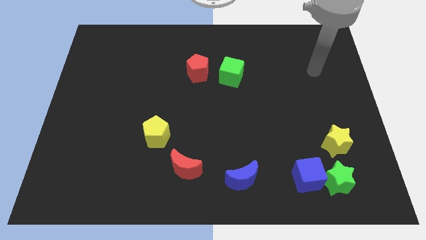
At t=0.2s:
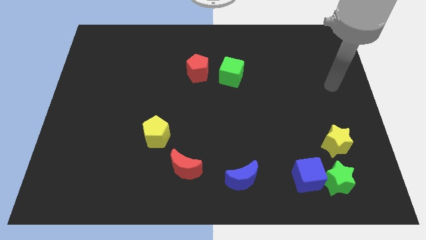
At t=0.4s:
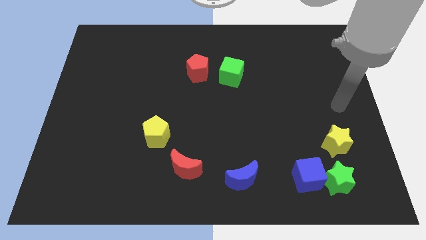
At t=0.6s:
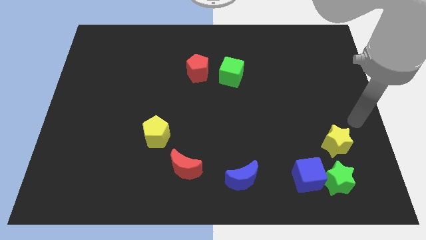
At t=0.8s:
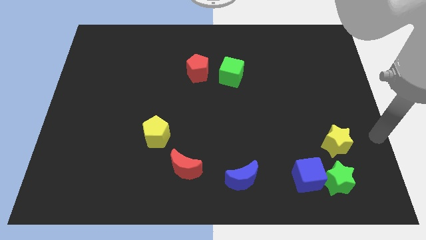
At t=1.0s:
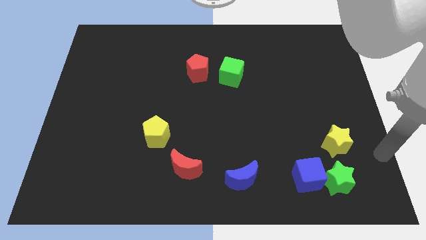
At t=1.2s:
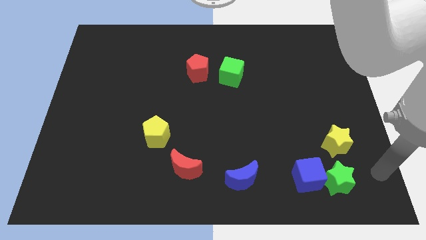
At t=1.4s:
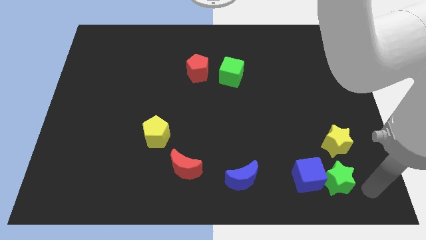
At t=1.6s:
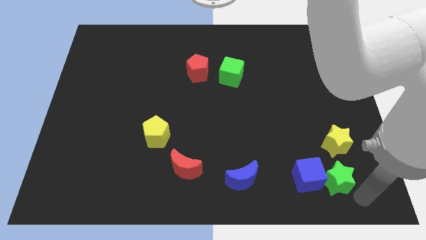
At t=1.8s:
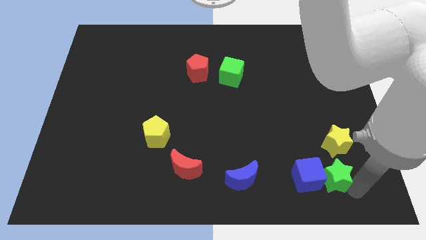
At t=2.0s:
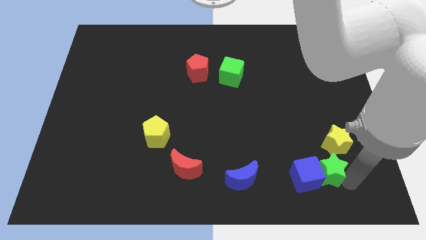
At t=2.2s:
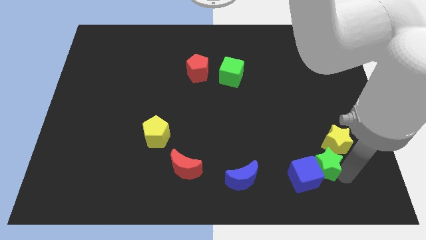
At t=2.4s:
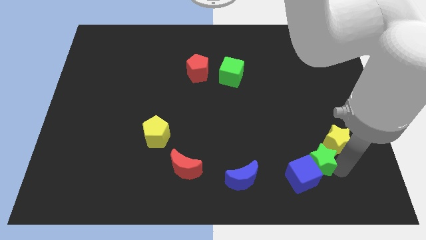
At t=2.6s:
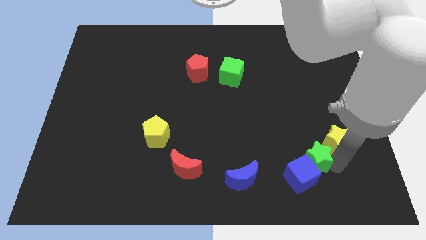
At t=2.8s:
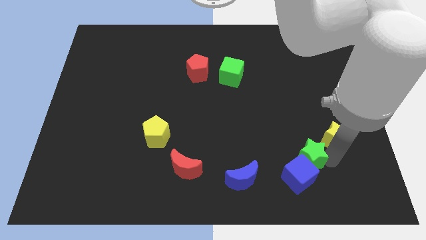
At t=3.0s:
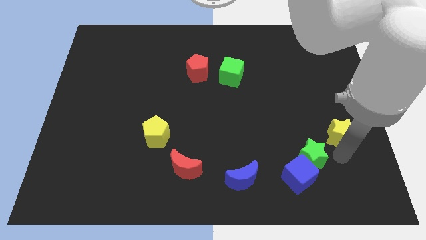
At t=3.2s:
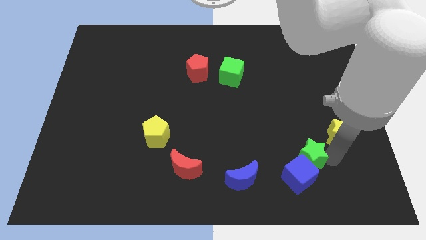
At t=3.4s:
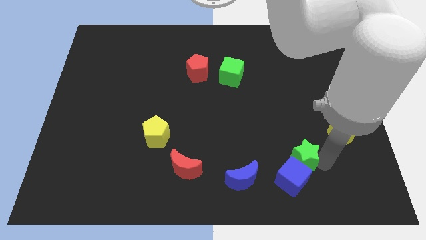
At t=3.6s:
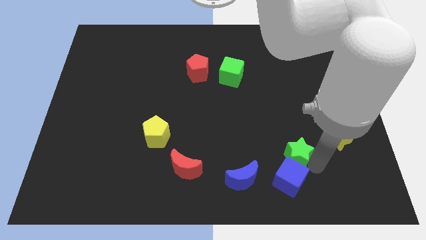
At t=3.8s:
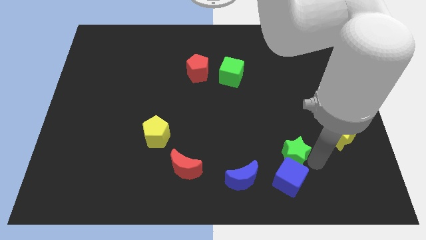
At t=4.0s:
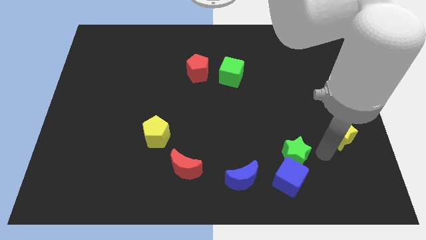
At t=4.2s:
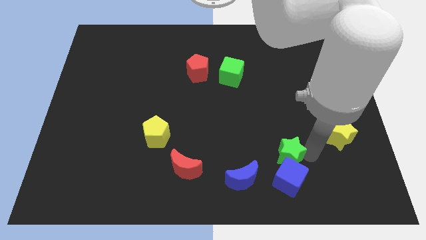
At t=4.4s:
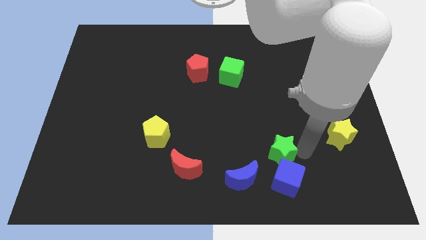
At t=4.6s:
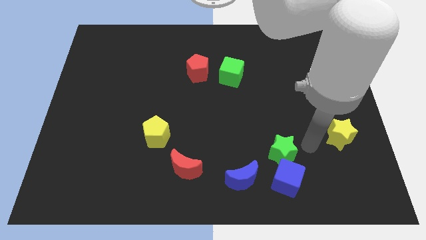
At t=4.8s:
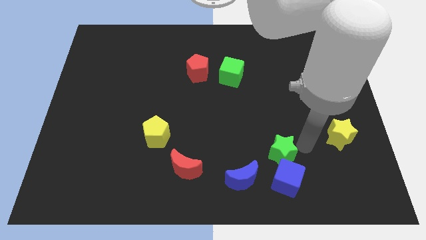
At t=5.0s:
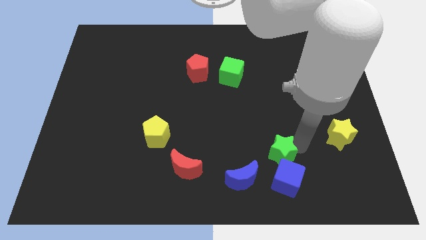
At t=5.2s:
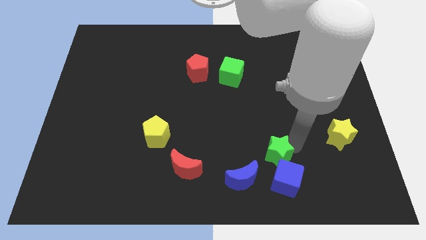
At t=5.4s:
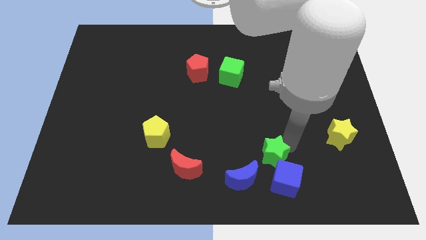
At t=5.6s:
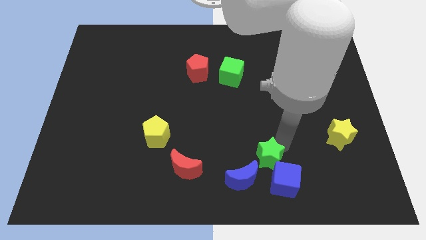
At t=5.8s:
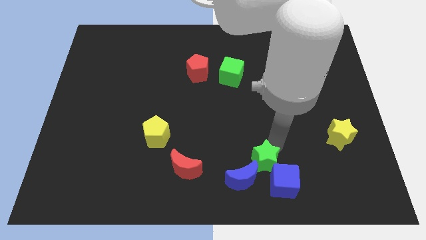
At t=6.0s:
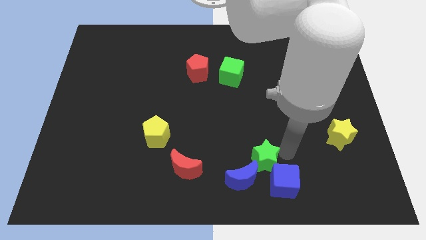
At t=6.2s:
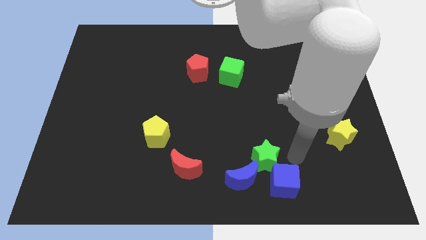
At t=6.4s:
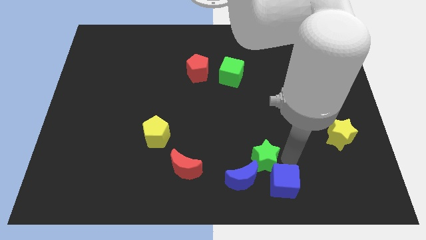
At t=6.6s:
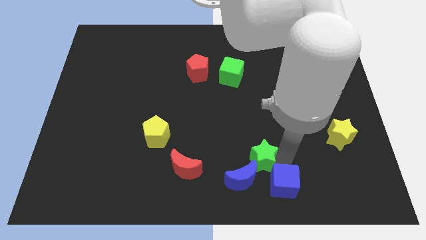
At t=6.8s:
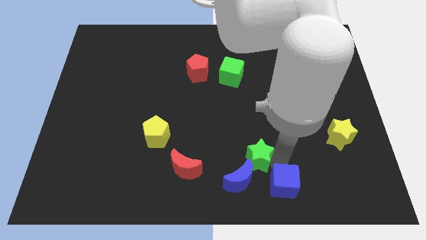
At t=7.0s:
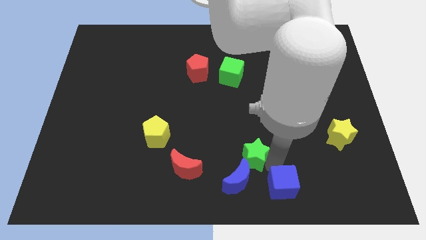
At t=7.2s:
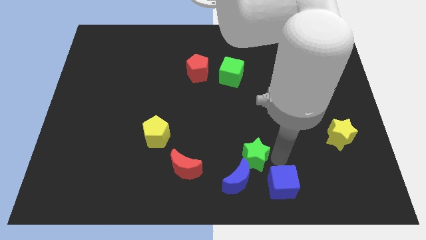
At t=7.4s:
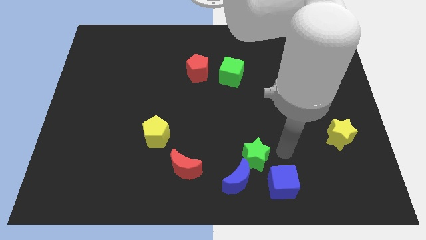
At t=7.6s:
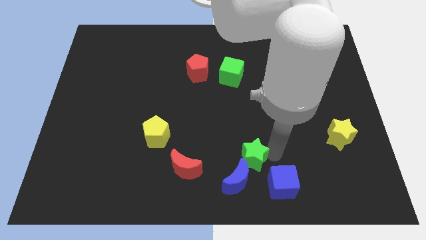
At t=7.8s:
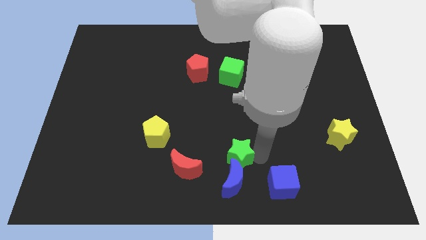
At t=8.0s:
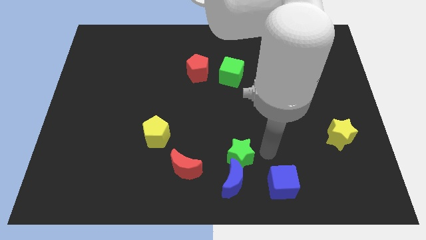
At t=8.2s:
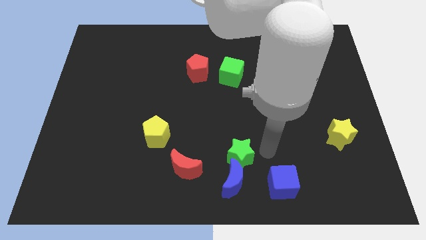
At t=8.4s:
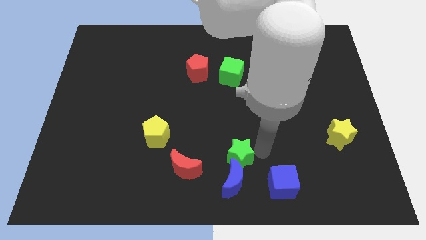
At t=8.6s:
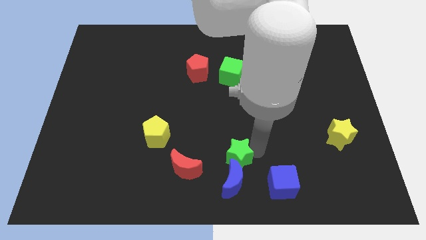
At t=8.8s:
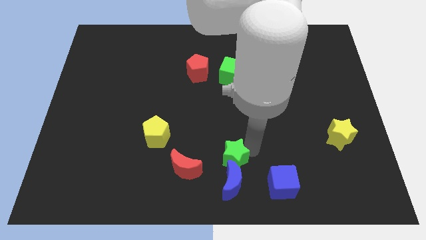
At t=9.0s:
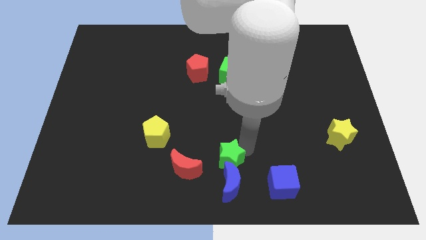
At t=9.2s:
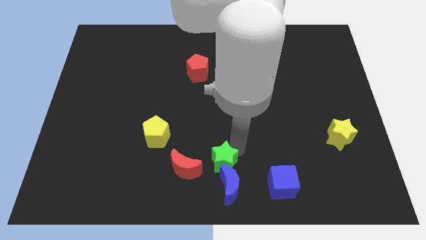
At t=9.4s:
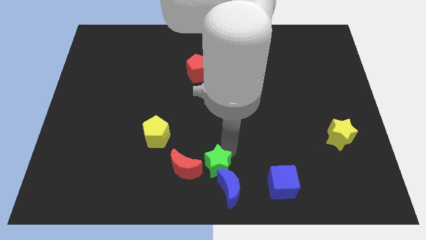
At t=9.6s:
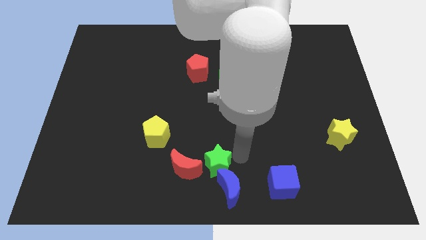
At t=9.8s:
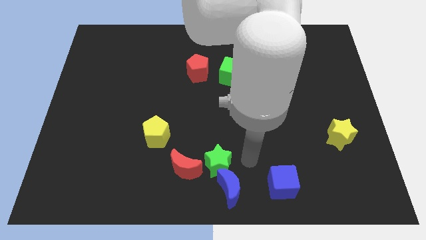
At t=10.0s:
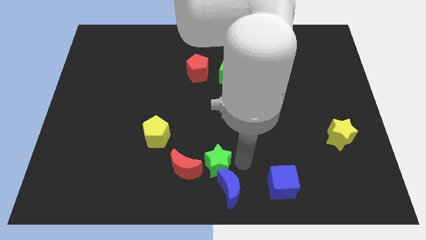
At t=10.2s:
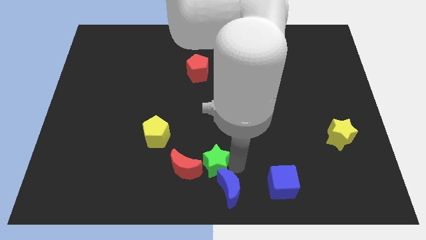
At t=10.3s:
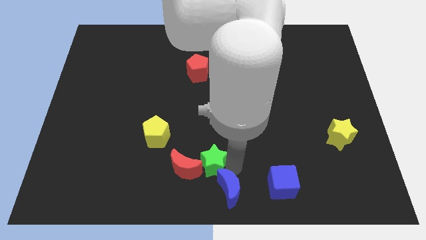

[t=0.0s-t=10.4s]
put the green star towards the red moon

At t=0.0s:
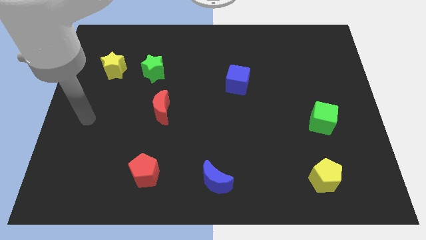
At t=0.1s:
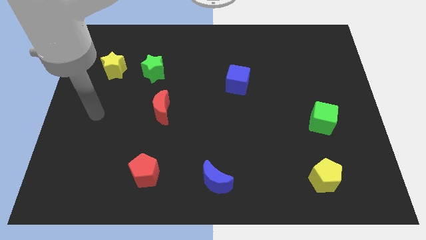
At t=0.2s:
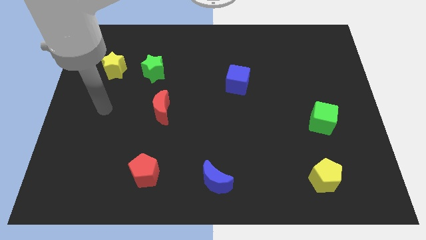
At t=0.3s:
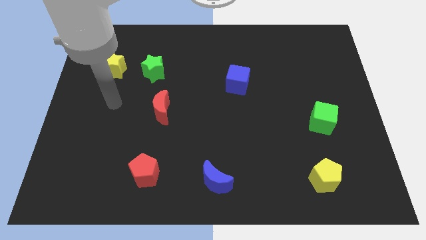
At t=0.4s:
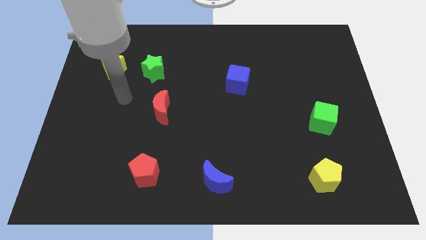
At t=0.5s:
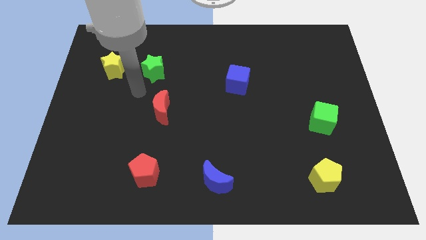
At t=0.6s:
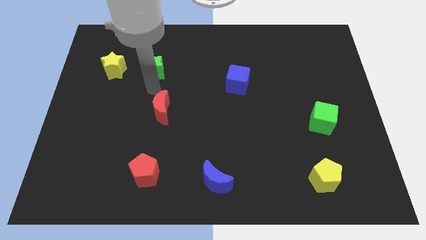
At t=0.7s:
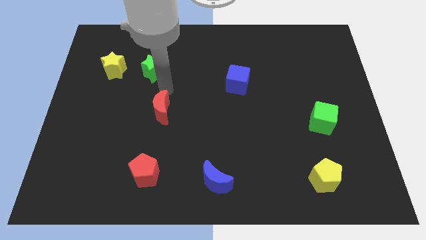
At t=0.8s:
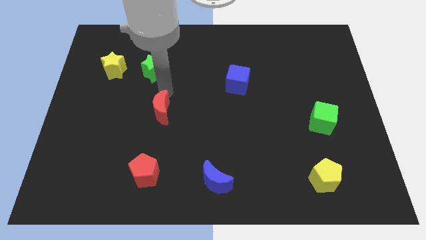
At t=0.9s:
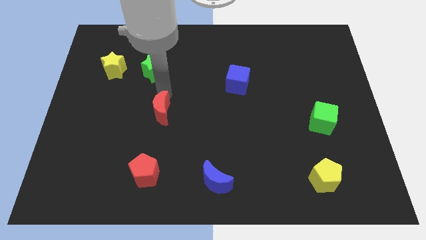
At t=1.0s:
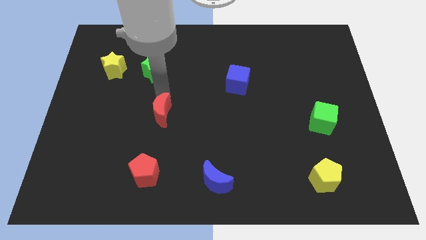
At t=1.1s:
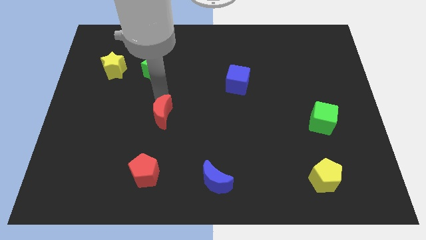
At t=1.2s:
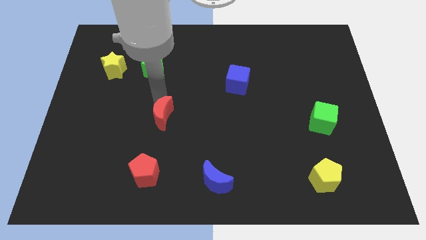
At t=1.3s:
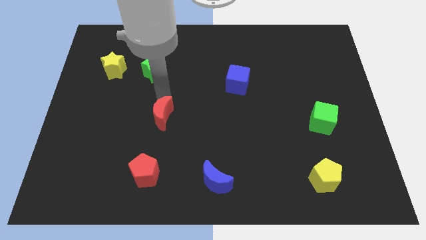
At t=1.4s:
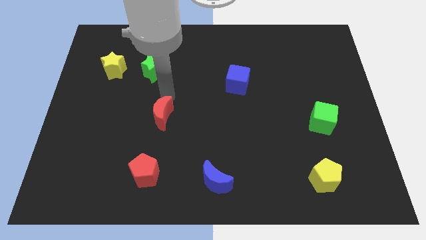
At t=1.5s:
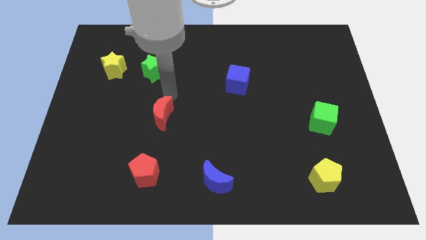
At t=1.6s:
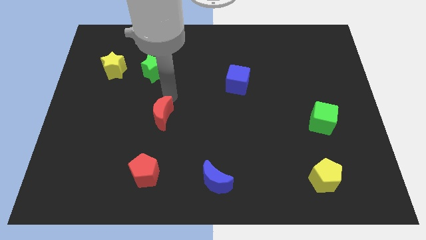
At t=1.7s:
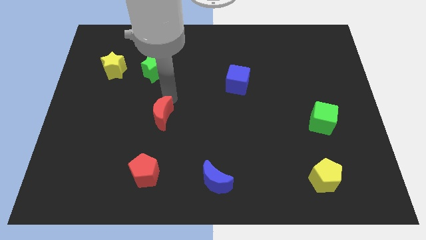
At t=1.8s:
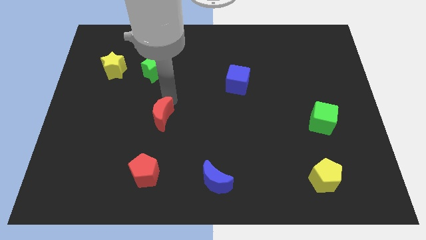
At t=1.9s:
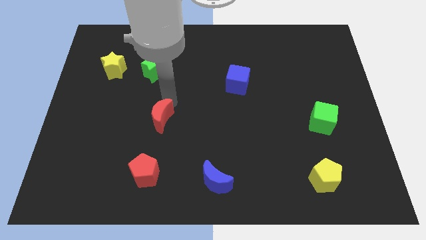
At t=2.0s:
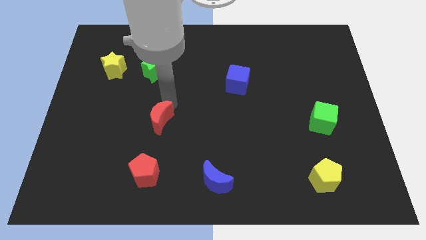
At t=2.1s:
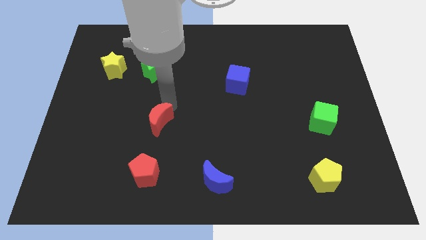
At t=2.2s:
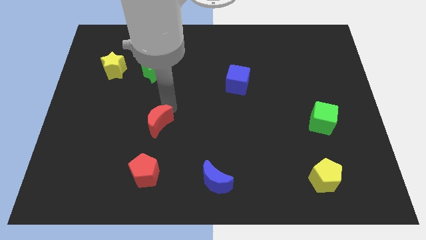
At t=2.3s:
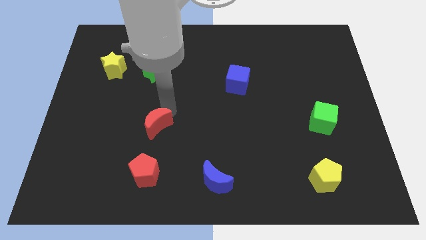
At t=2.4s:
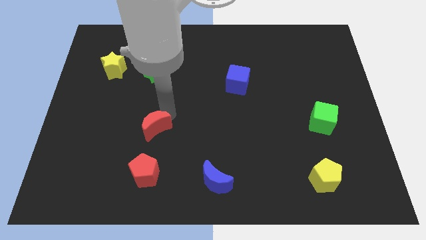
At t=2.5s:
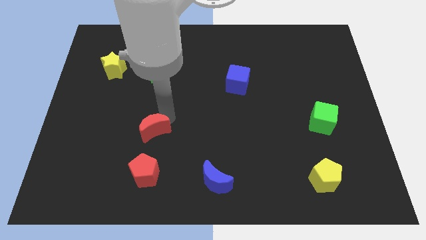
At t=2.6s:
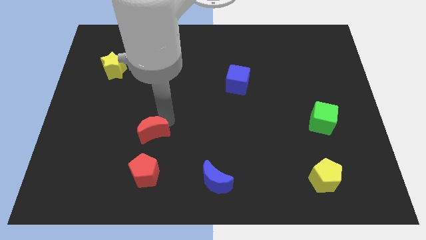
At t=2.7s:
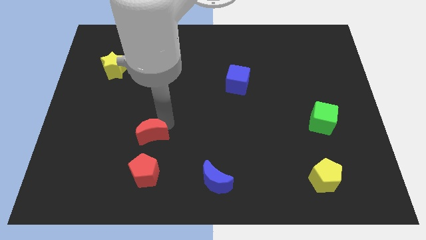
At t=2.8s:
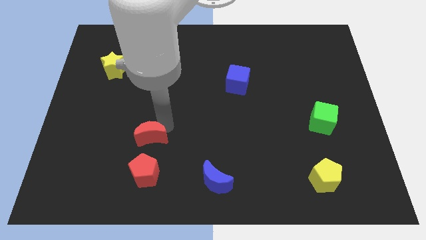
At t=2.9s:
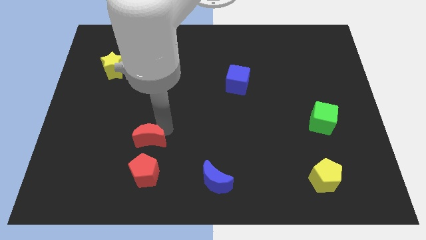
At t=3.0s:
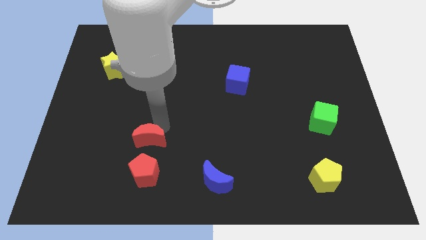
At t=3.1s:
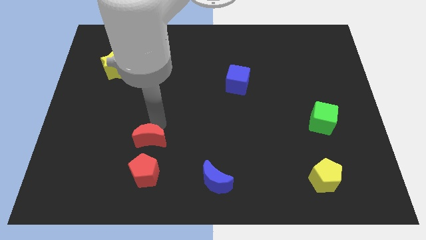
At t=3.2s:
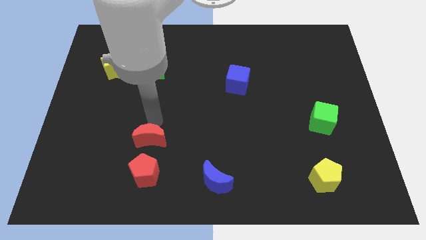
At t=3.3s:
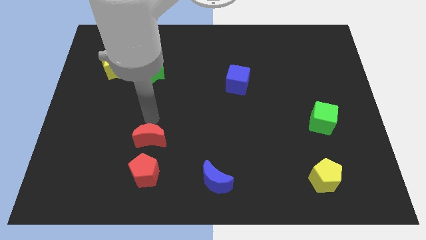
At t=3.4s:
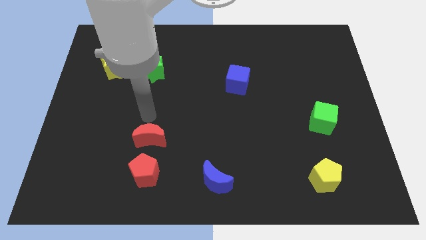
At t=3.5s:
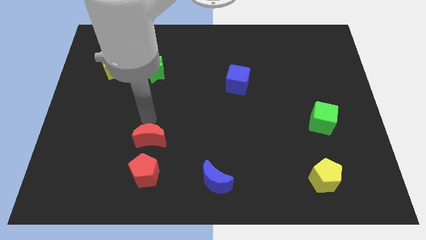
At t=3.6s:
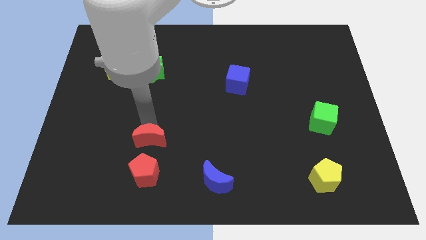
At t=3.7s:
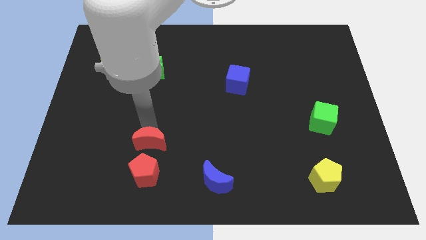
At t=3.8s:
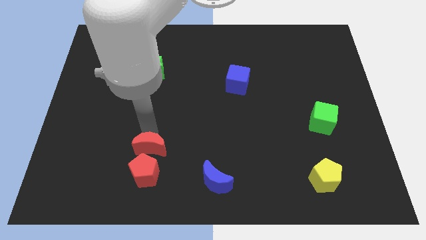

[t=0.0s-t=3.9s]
slide the red moon close to the red pentagon
